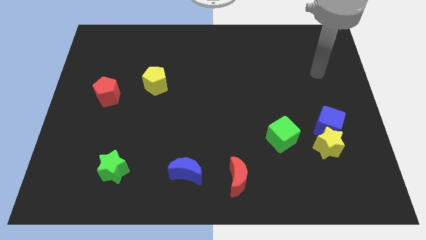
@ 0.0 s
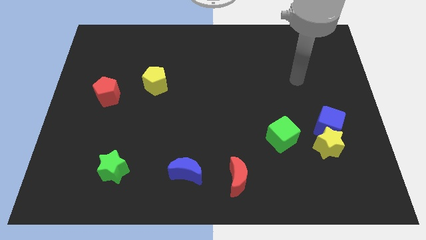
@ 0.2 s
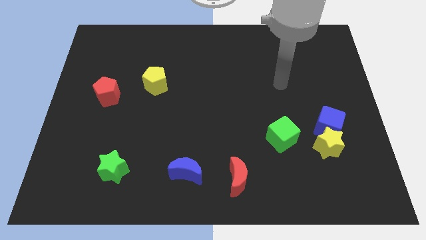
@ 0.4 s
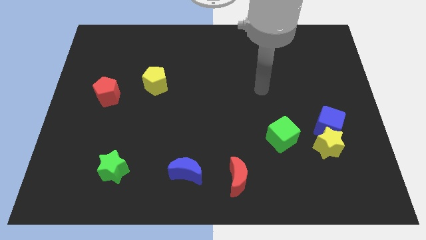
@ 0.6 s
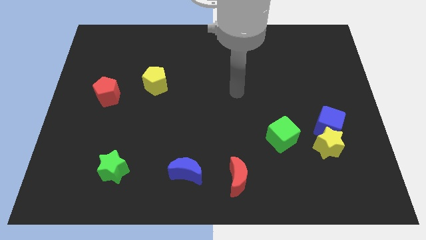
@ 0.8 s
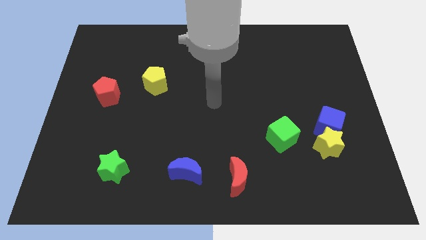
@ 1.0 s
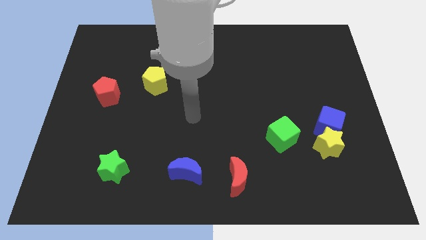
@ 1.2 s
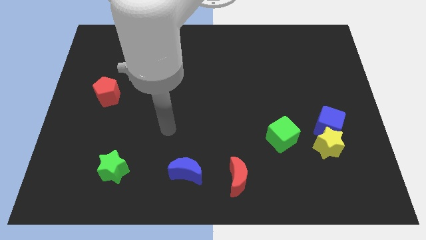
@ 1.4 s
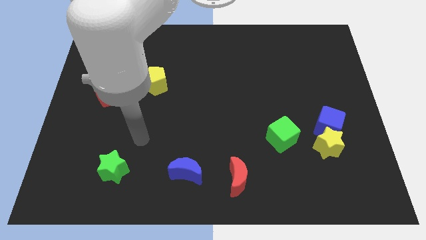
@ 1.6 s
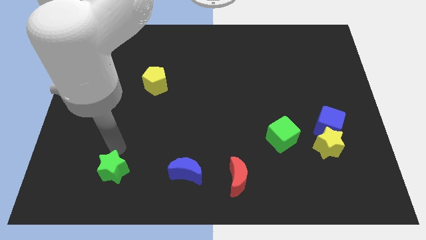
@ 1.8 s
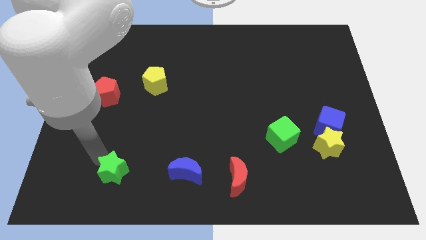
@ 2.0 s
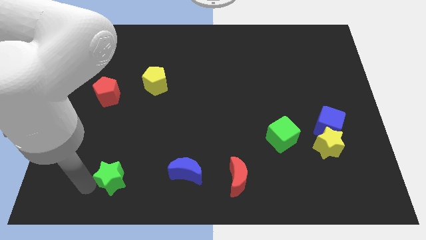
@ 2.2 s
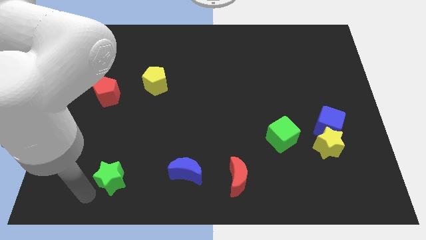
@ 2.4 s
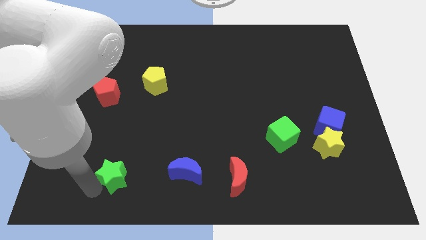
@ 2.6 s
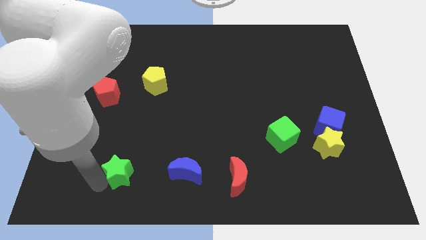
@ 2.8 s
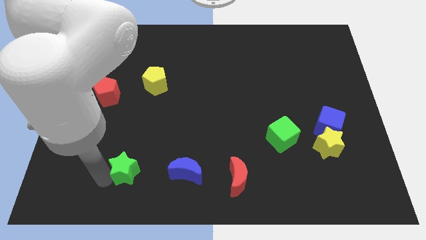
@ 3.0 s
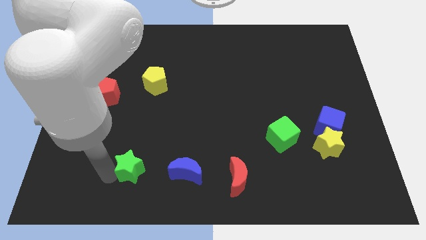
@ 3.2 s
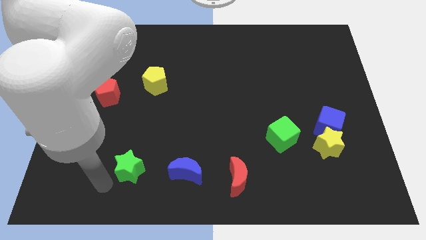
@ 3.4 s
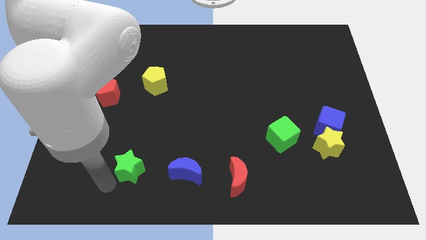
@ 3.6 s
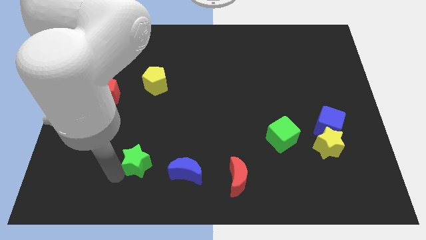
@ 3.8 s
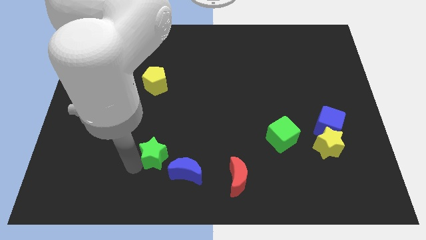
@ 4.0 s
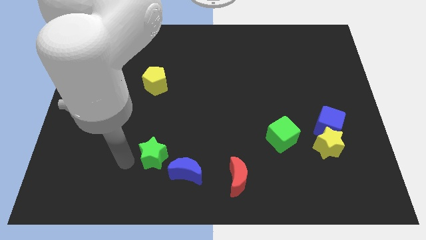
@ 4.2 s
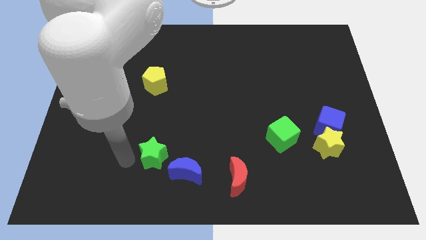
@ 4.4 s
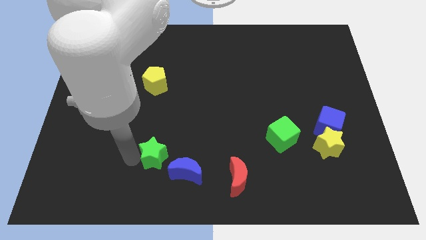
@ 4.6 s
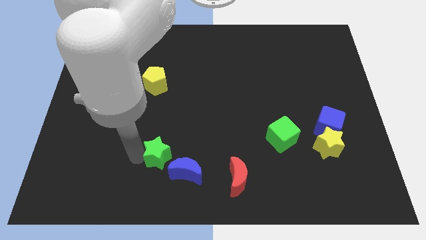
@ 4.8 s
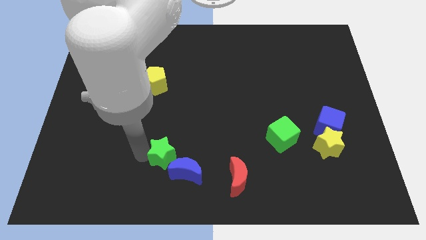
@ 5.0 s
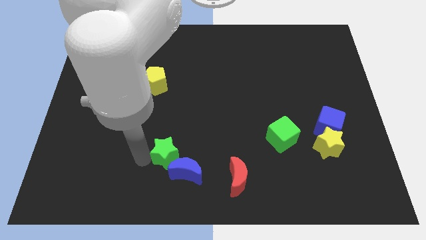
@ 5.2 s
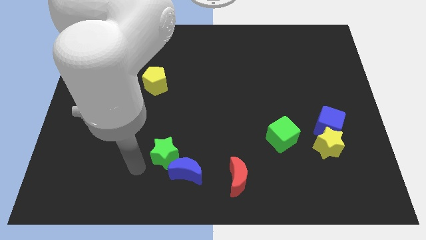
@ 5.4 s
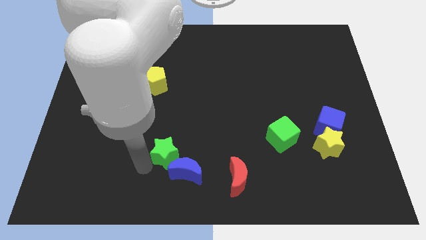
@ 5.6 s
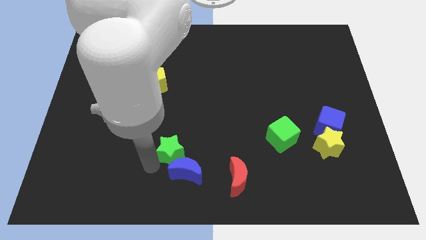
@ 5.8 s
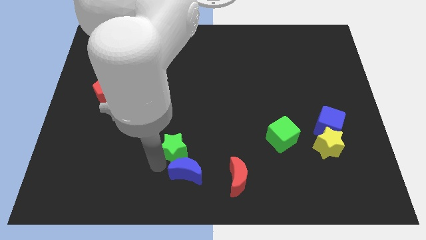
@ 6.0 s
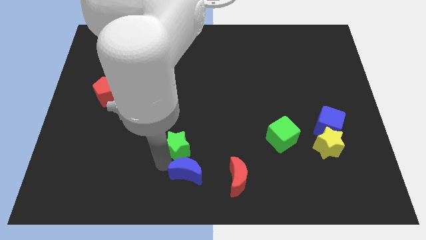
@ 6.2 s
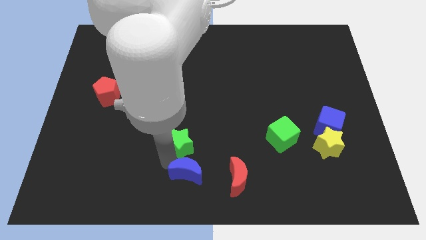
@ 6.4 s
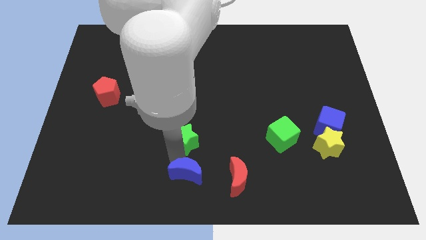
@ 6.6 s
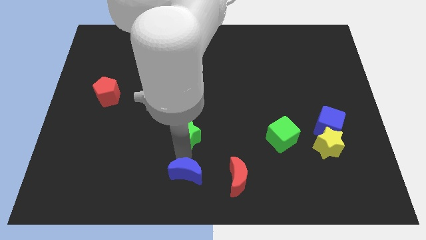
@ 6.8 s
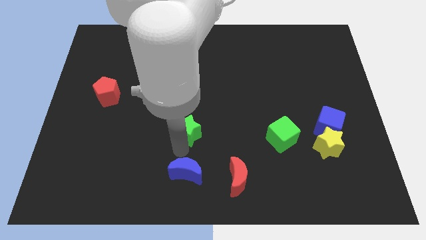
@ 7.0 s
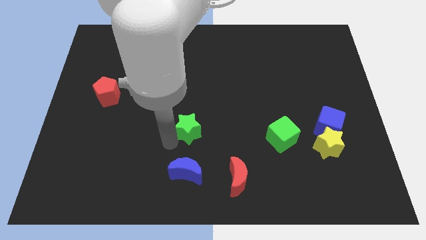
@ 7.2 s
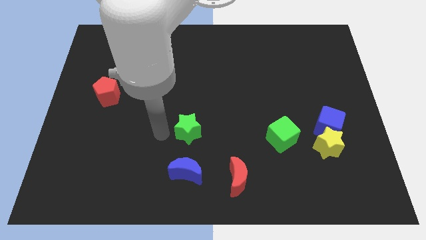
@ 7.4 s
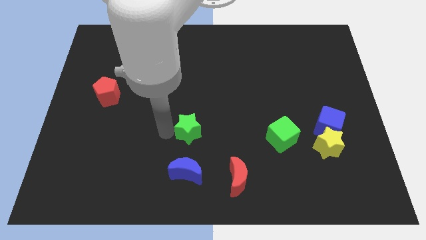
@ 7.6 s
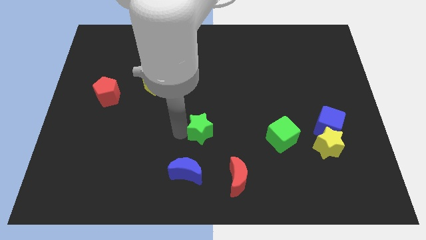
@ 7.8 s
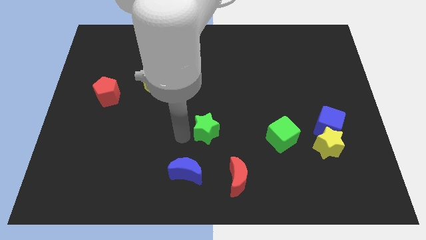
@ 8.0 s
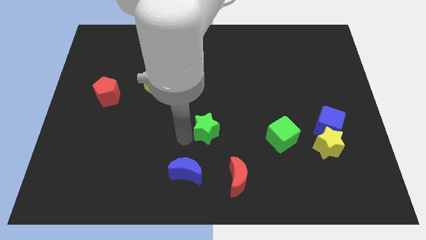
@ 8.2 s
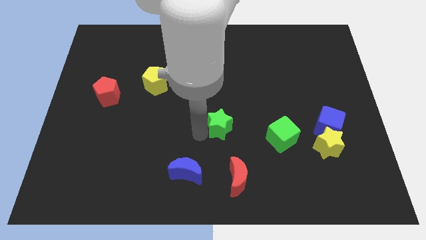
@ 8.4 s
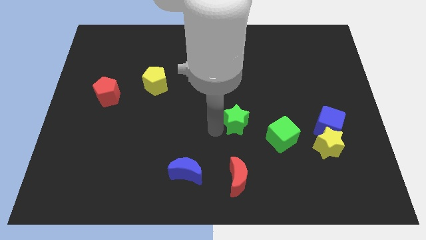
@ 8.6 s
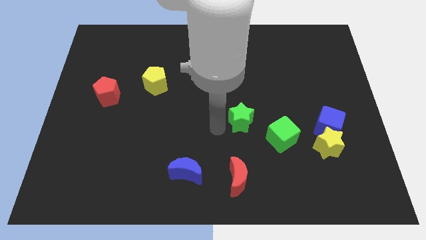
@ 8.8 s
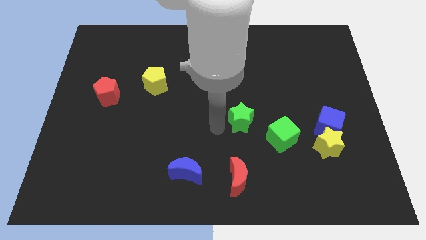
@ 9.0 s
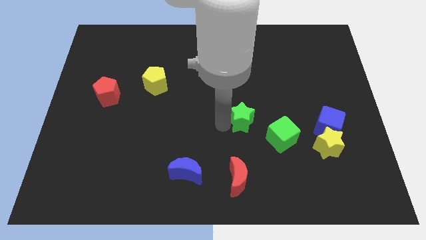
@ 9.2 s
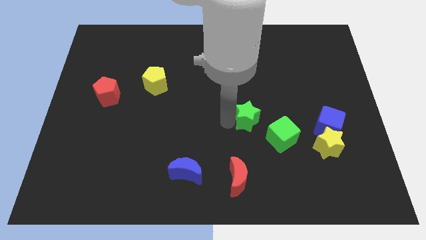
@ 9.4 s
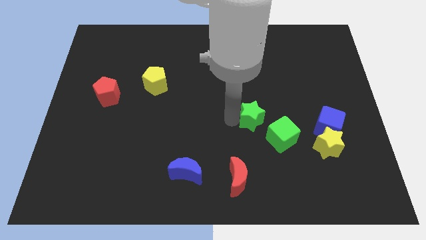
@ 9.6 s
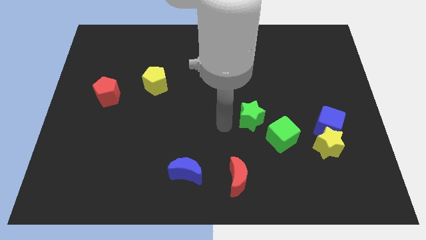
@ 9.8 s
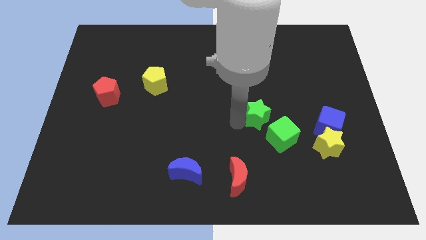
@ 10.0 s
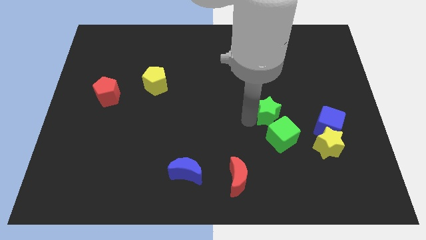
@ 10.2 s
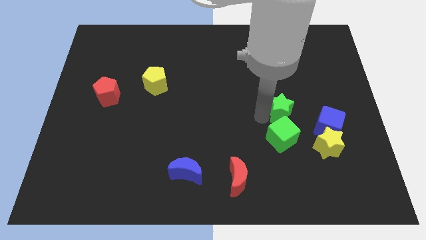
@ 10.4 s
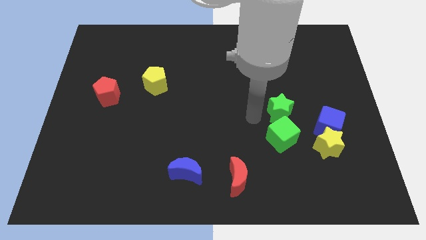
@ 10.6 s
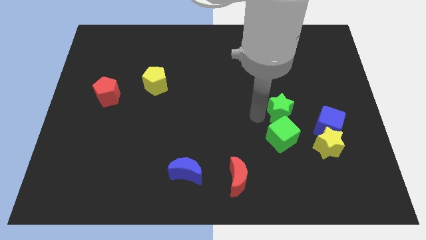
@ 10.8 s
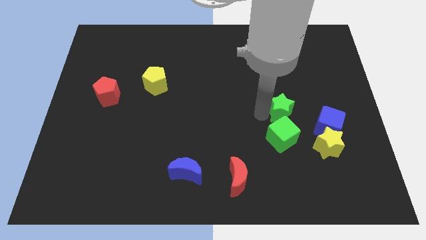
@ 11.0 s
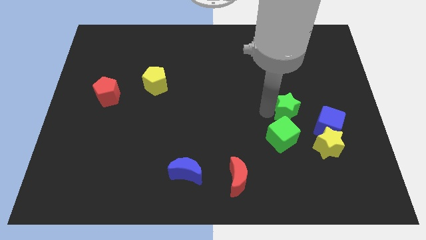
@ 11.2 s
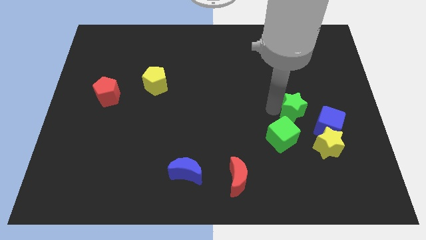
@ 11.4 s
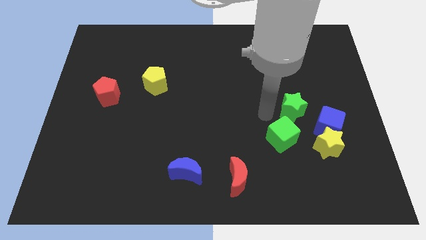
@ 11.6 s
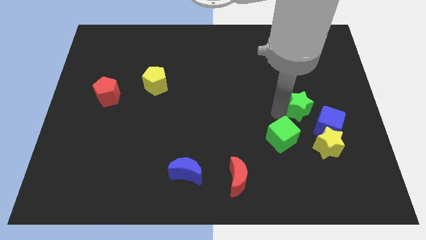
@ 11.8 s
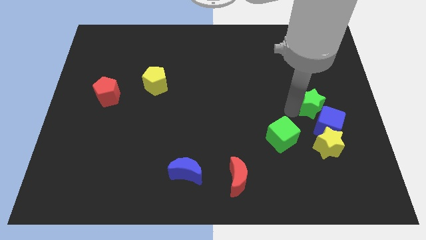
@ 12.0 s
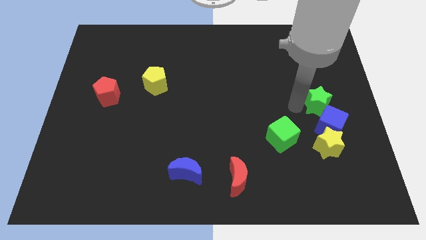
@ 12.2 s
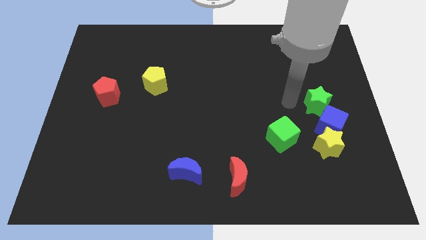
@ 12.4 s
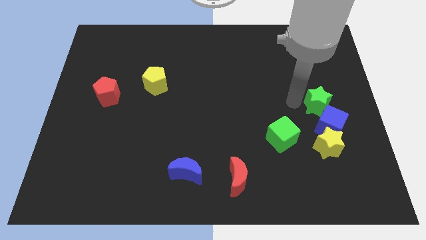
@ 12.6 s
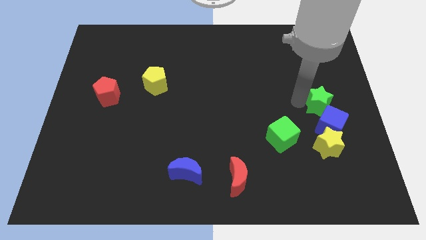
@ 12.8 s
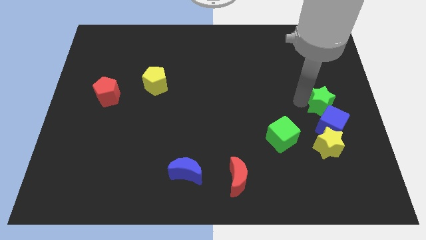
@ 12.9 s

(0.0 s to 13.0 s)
move the green star to the center right
